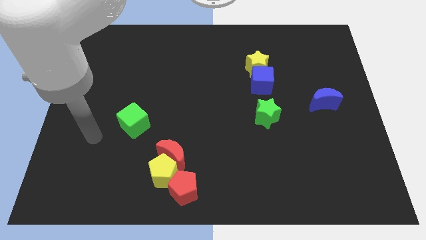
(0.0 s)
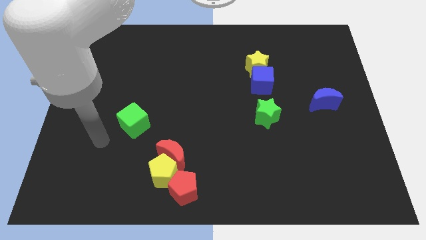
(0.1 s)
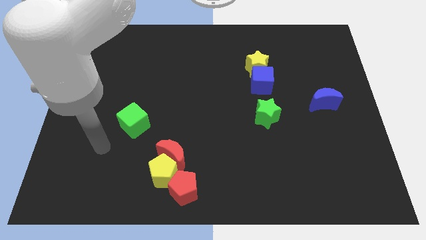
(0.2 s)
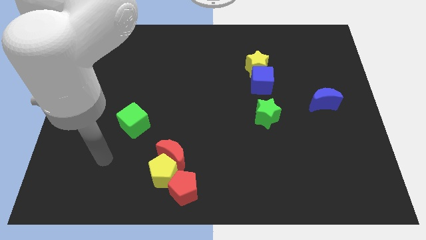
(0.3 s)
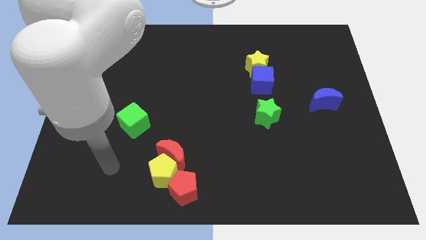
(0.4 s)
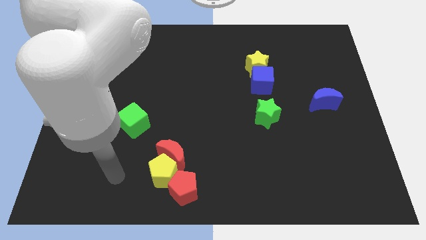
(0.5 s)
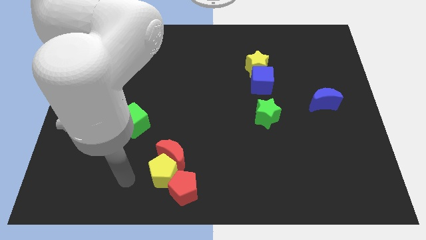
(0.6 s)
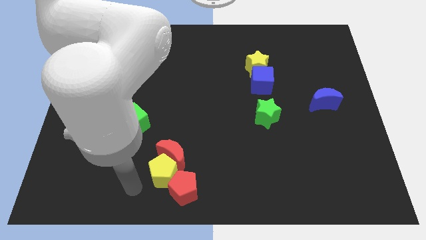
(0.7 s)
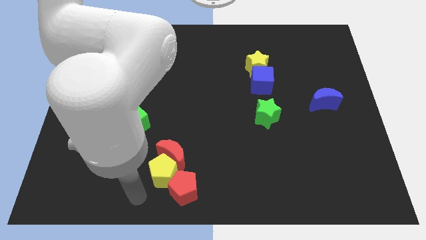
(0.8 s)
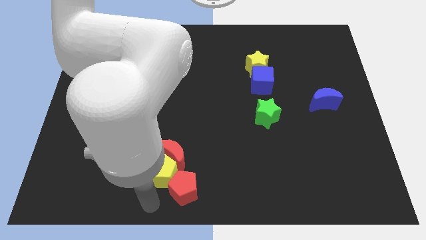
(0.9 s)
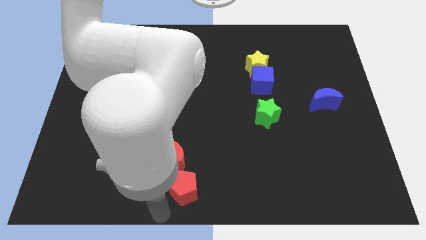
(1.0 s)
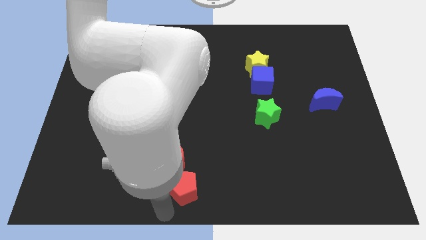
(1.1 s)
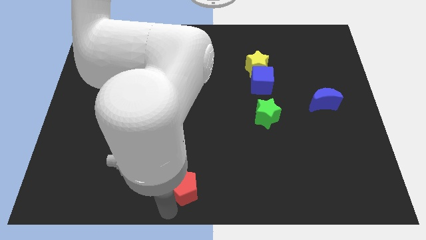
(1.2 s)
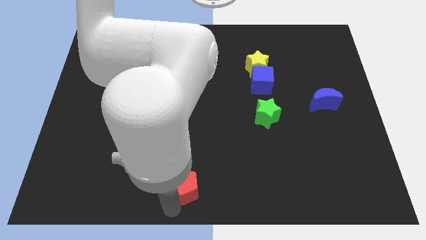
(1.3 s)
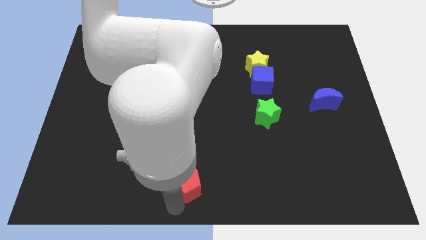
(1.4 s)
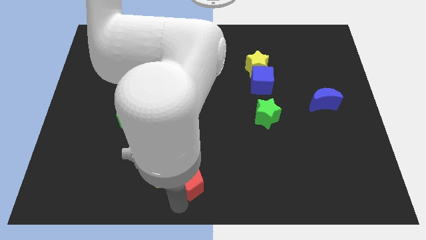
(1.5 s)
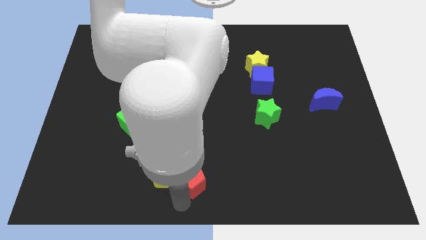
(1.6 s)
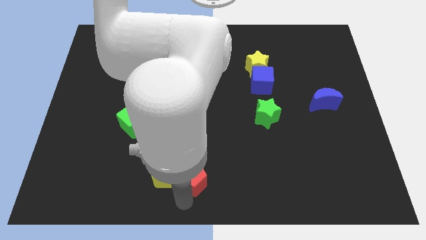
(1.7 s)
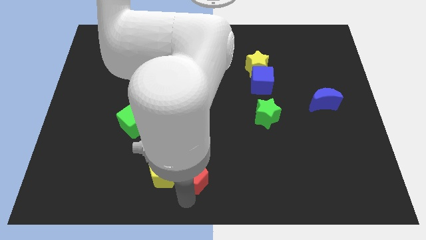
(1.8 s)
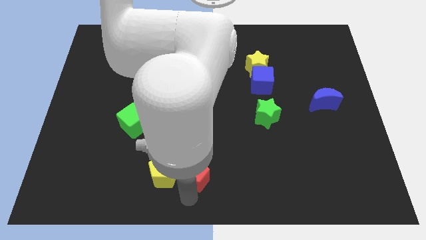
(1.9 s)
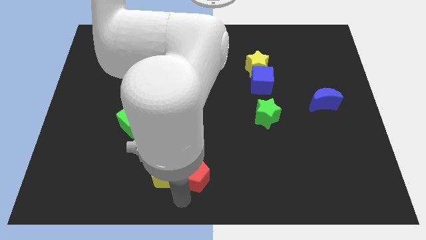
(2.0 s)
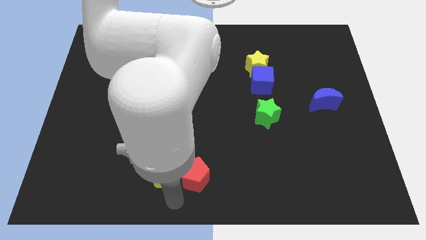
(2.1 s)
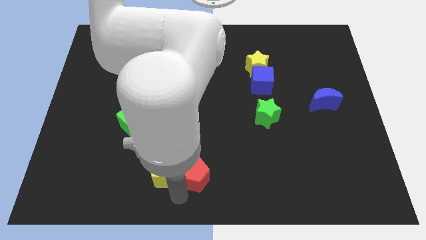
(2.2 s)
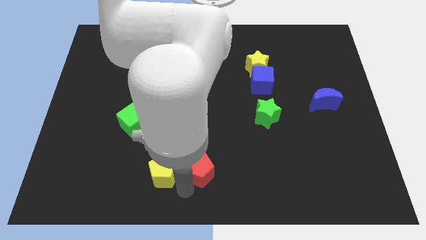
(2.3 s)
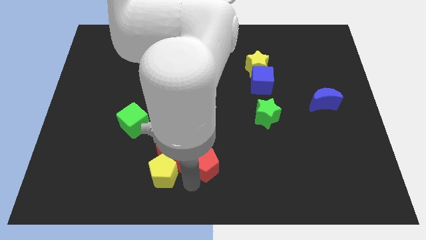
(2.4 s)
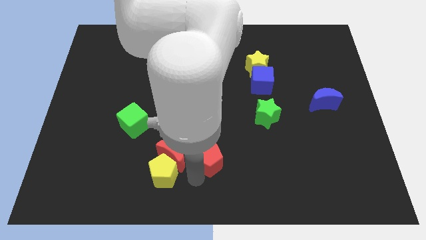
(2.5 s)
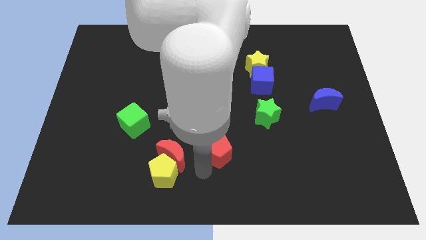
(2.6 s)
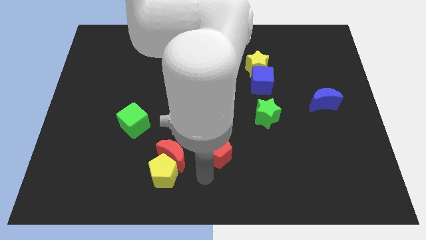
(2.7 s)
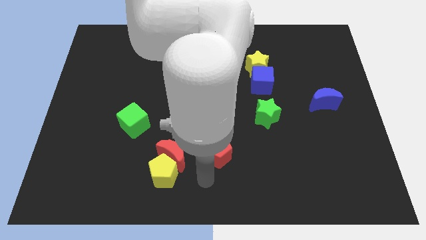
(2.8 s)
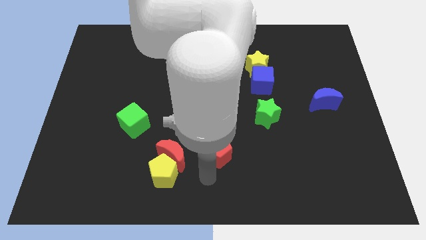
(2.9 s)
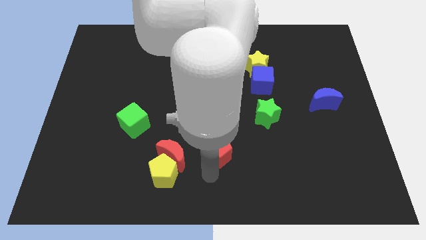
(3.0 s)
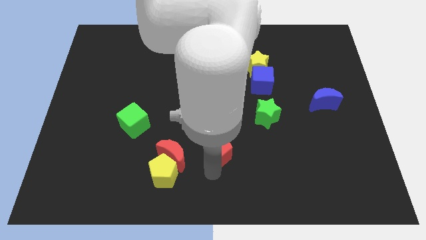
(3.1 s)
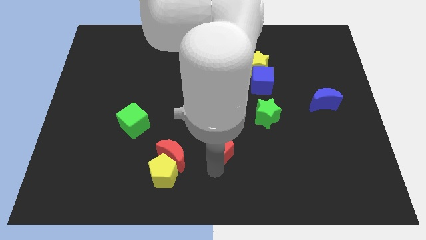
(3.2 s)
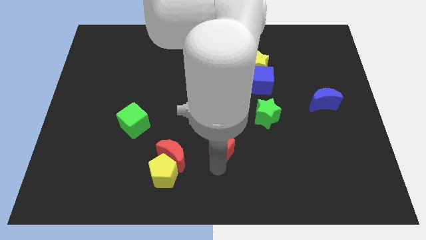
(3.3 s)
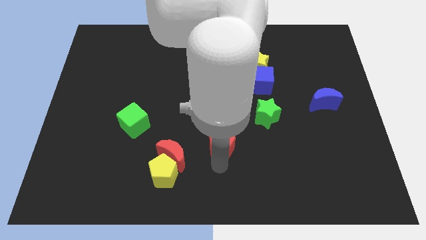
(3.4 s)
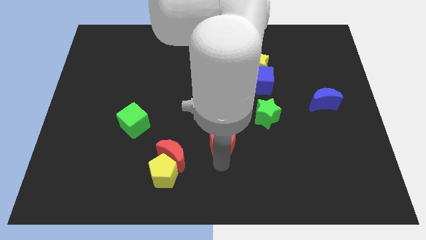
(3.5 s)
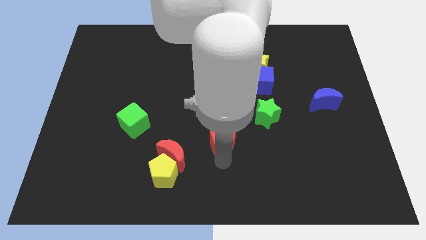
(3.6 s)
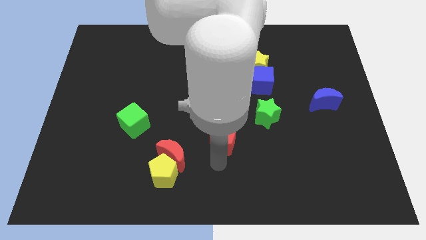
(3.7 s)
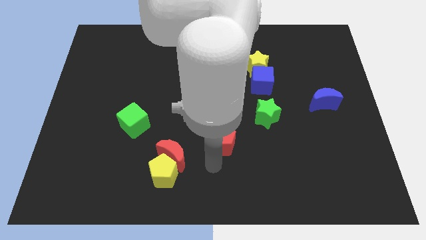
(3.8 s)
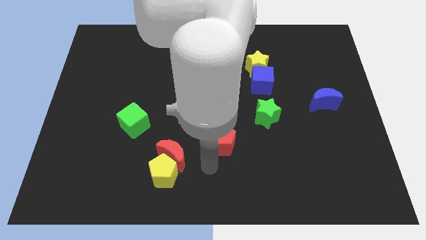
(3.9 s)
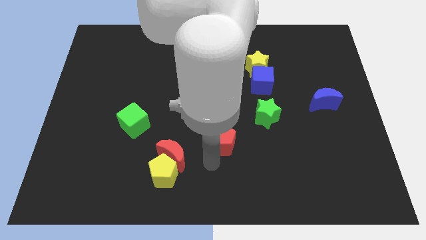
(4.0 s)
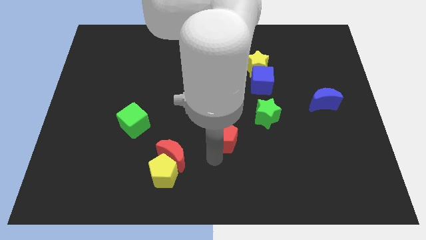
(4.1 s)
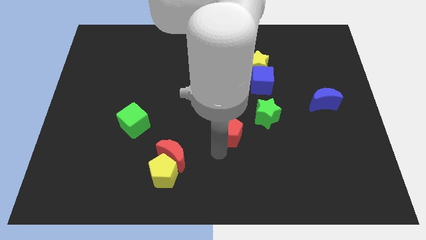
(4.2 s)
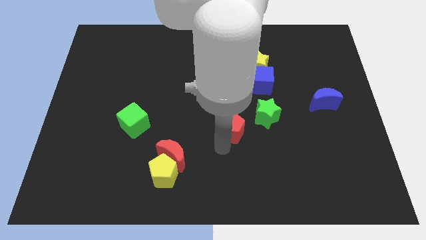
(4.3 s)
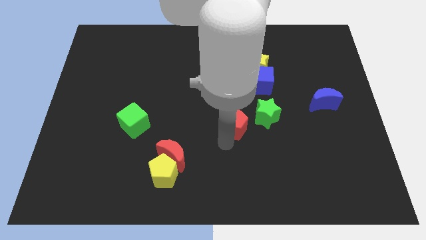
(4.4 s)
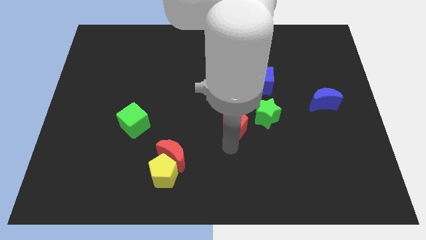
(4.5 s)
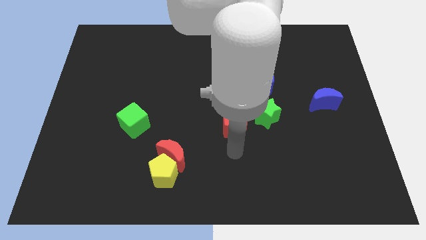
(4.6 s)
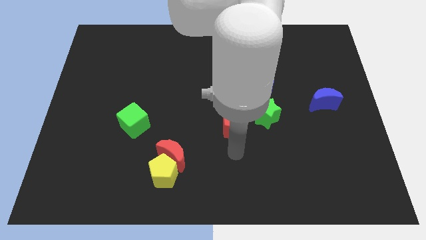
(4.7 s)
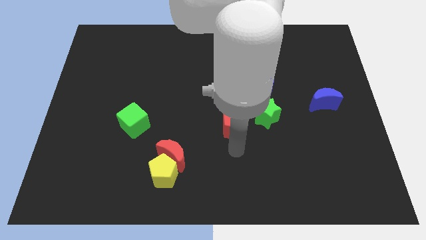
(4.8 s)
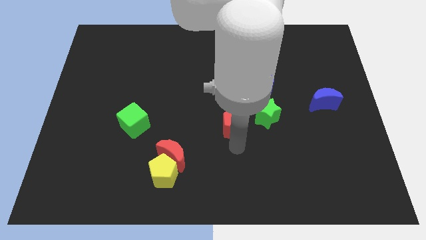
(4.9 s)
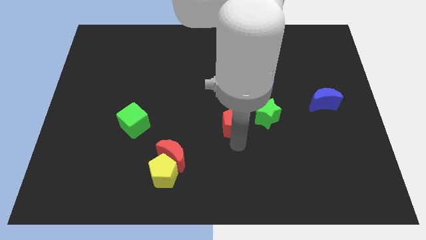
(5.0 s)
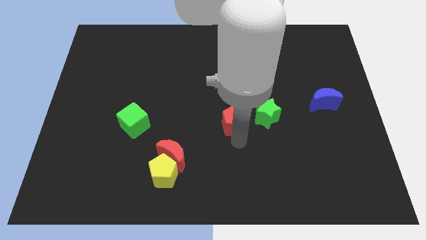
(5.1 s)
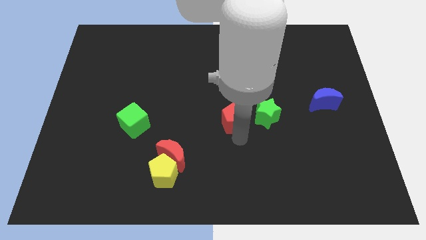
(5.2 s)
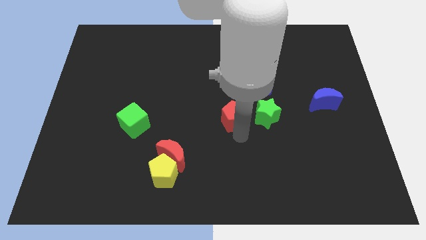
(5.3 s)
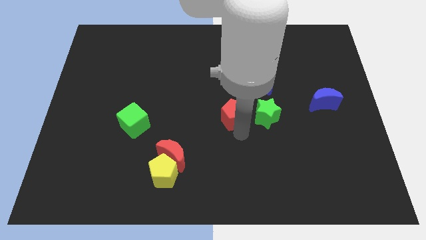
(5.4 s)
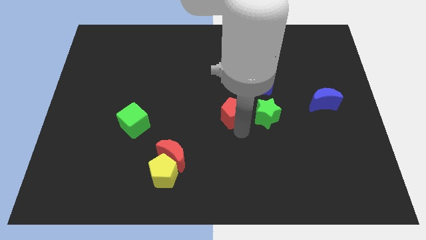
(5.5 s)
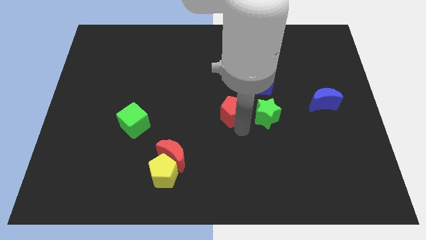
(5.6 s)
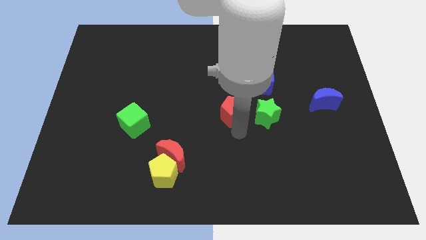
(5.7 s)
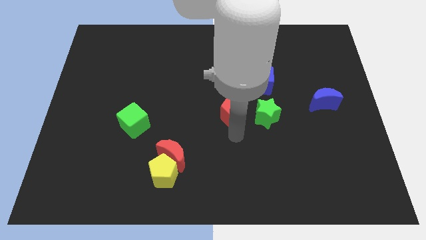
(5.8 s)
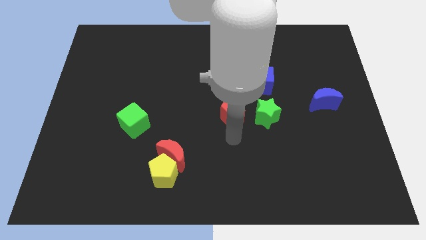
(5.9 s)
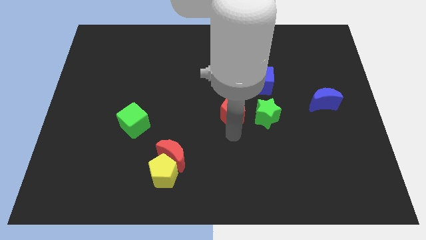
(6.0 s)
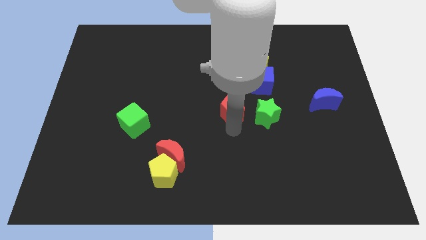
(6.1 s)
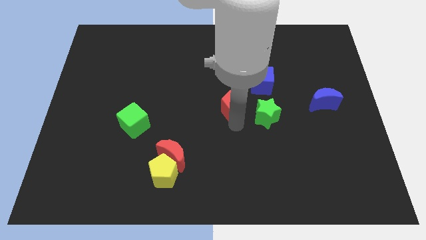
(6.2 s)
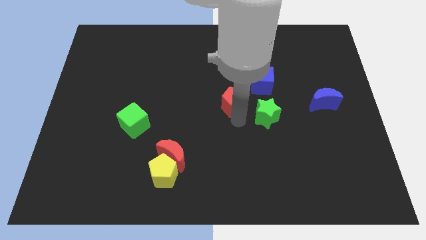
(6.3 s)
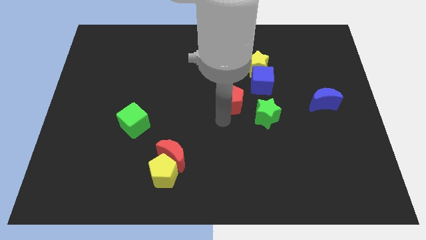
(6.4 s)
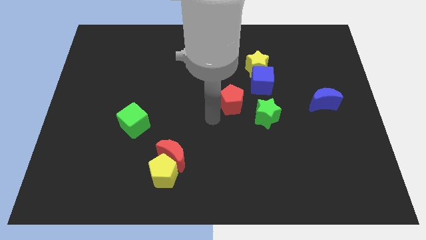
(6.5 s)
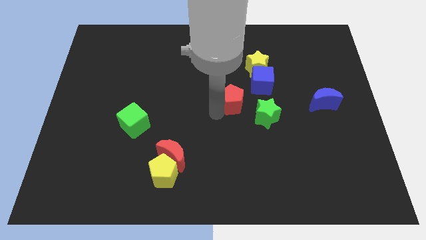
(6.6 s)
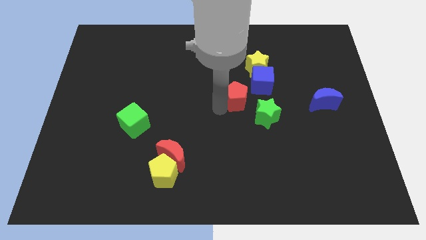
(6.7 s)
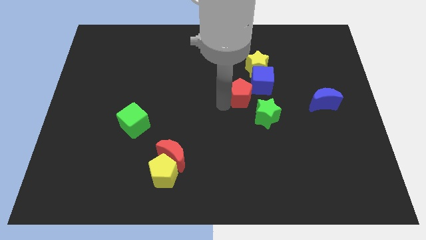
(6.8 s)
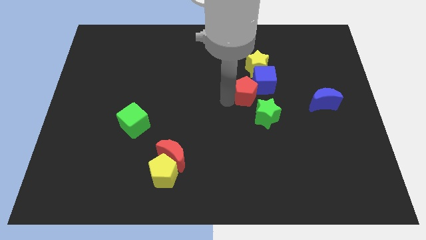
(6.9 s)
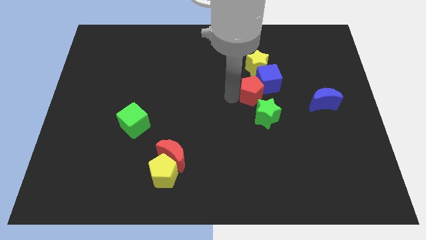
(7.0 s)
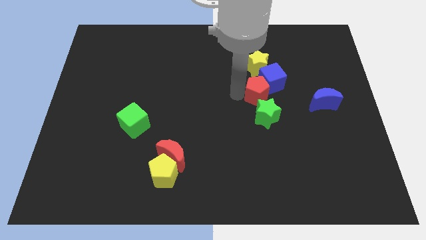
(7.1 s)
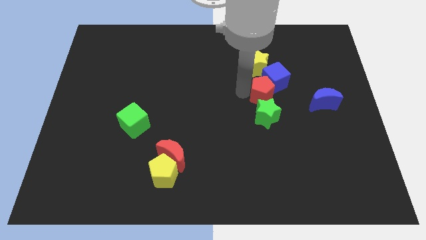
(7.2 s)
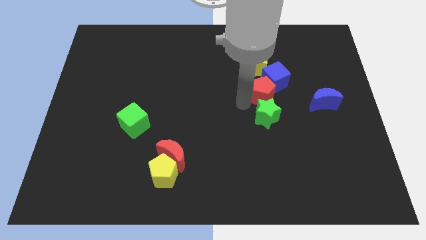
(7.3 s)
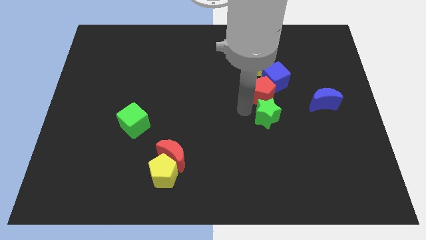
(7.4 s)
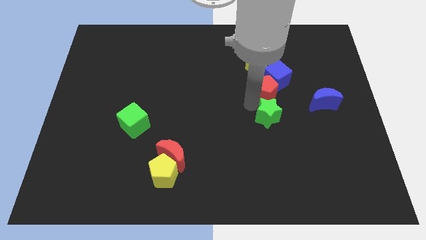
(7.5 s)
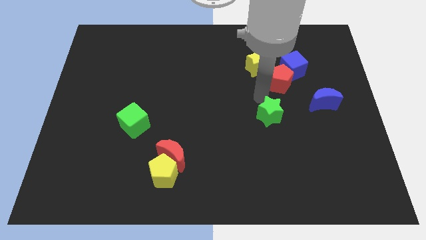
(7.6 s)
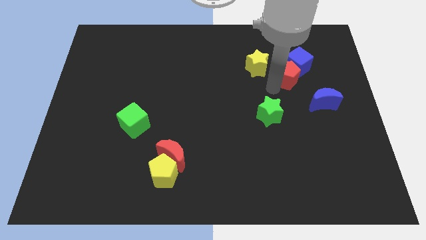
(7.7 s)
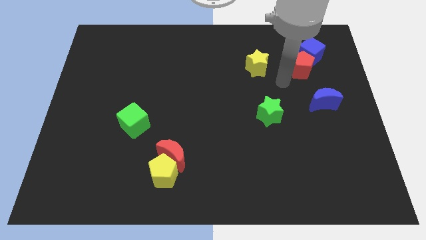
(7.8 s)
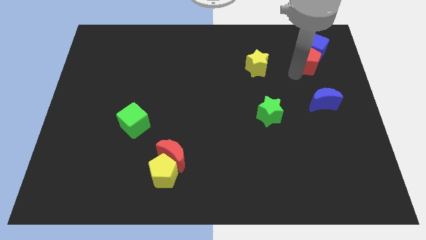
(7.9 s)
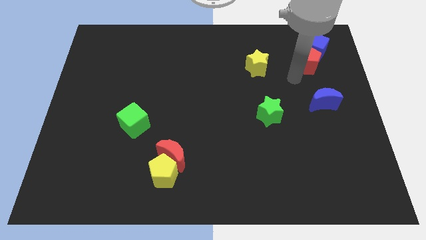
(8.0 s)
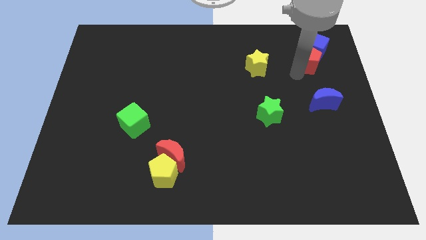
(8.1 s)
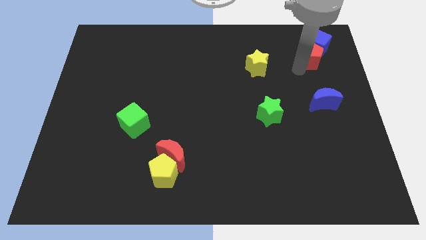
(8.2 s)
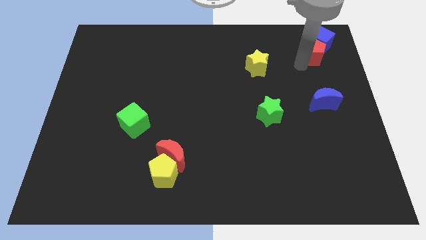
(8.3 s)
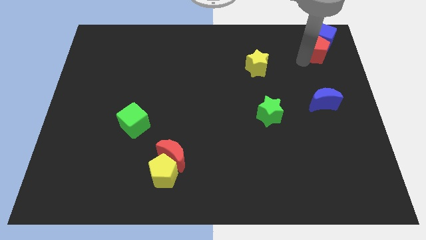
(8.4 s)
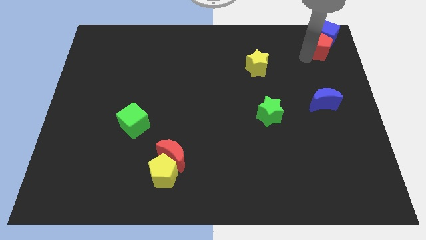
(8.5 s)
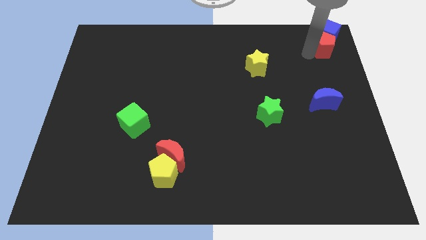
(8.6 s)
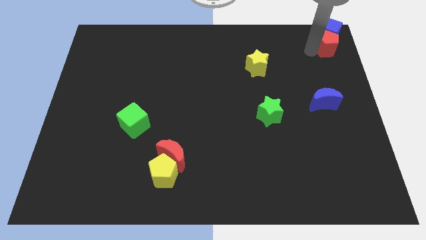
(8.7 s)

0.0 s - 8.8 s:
slide the red pentagon to the upper right corner
